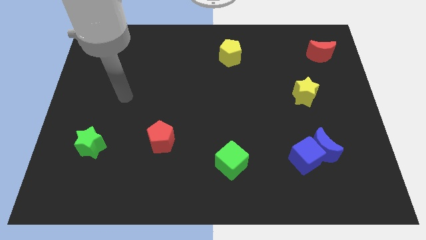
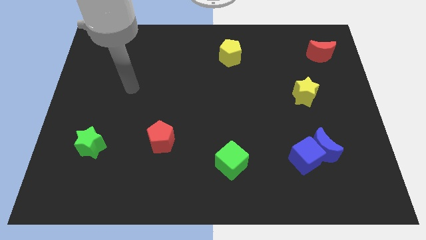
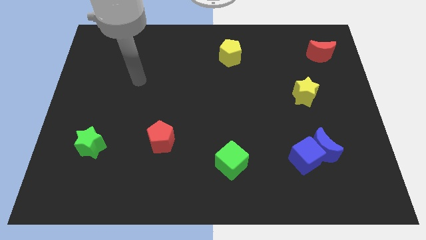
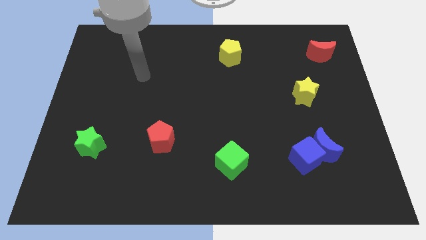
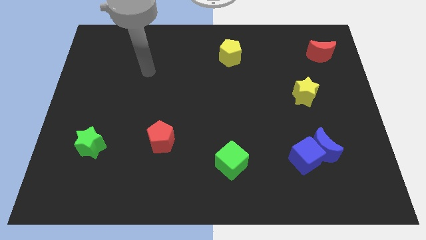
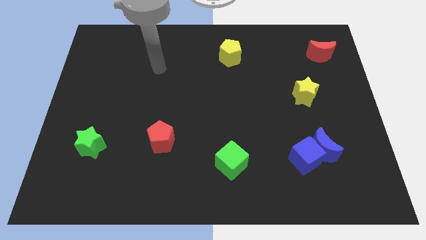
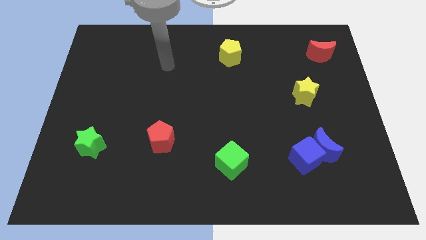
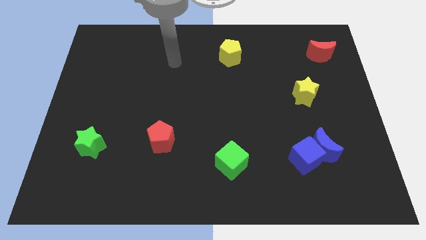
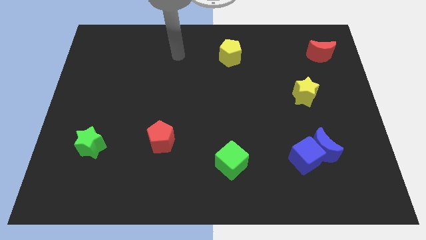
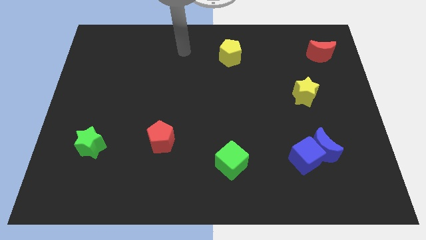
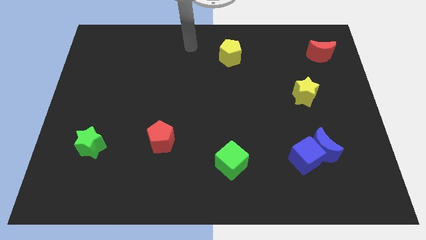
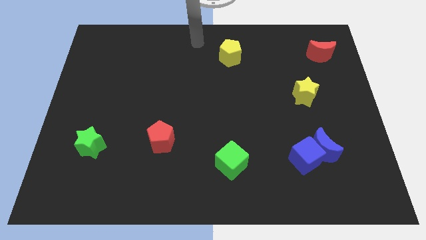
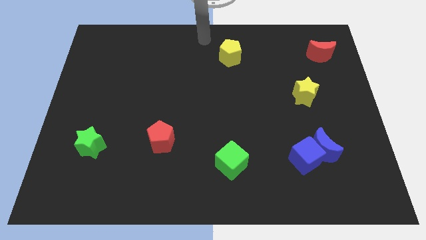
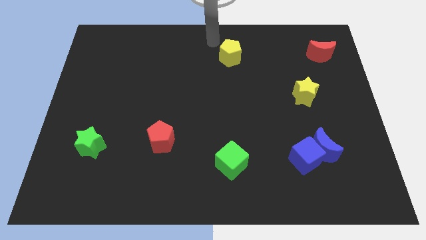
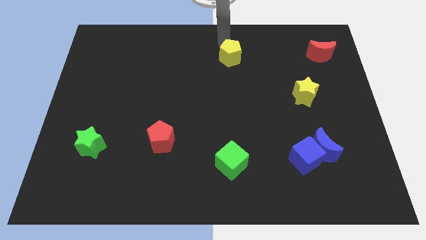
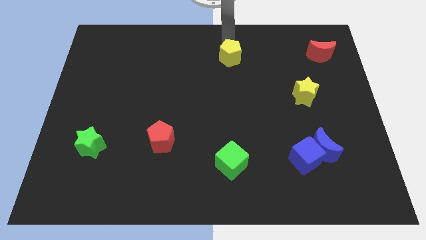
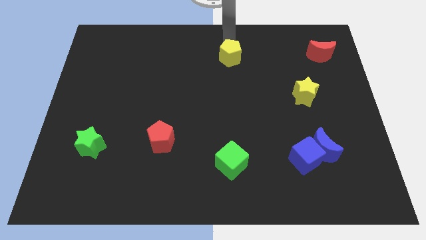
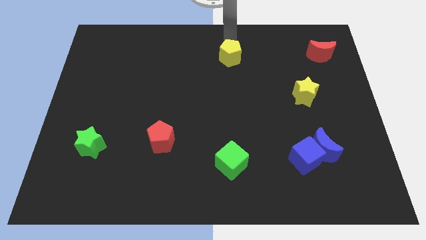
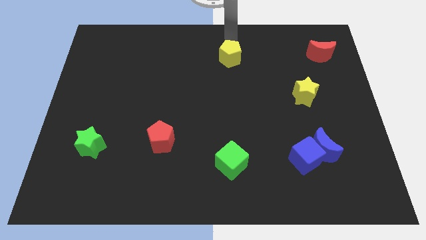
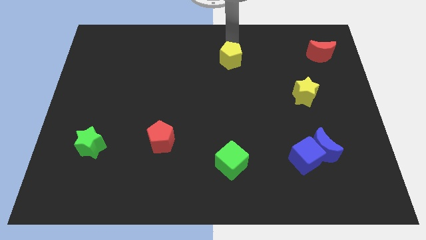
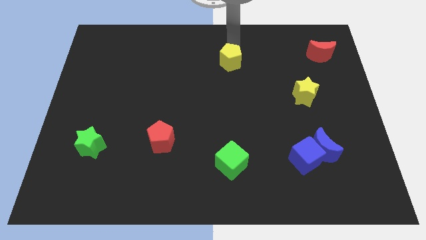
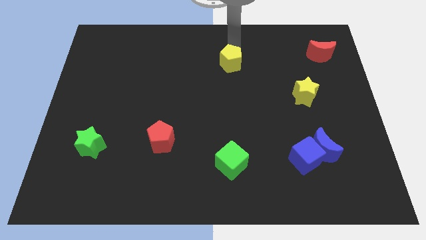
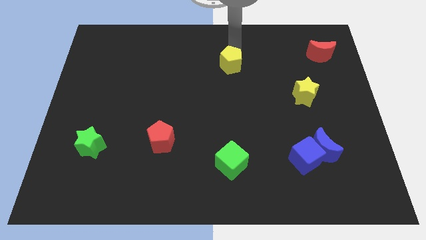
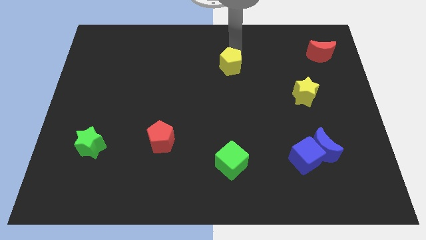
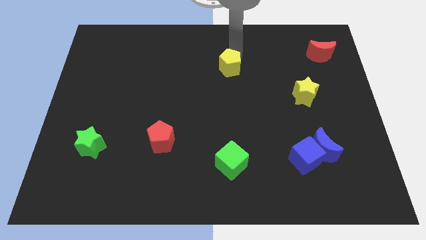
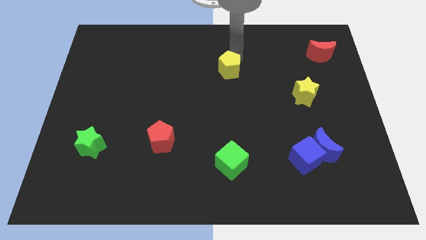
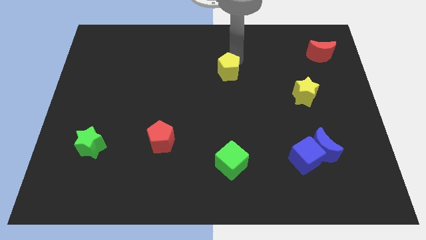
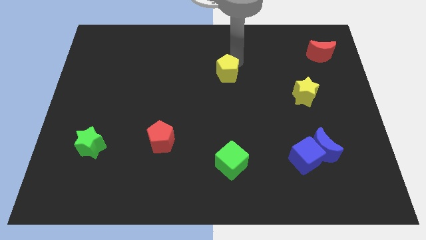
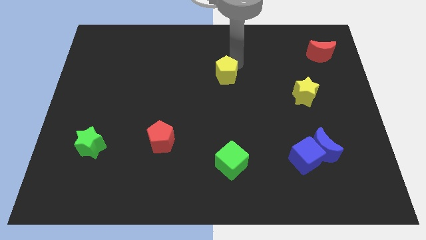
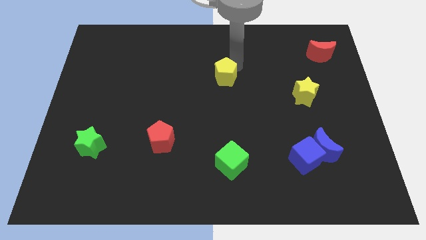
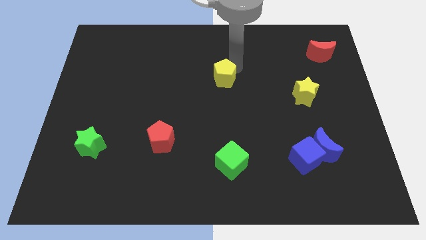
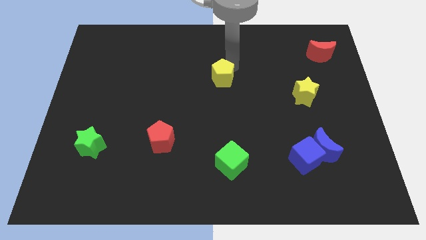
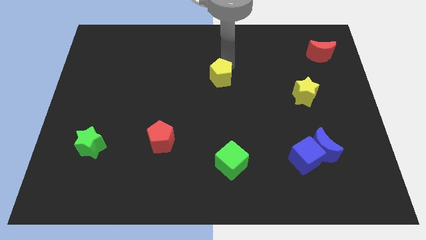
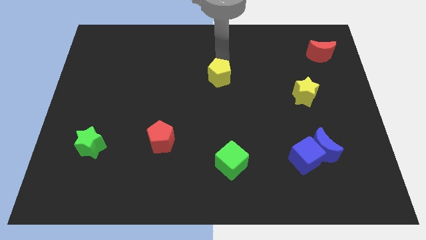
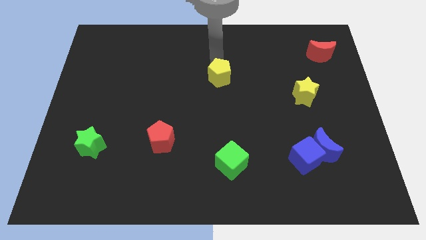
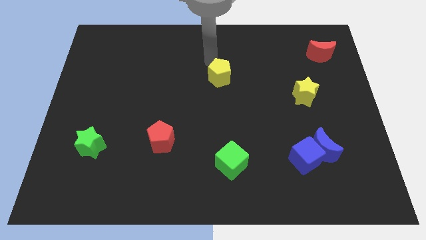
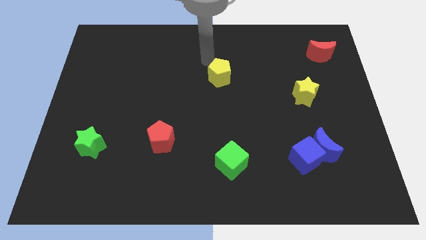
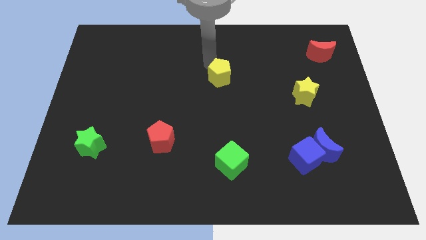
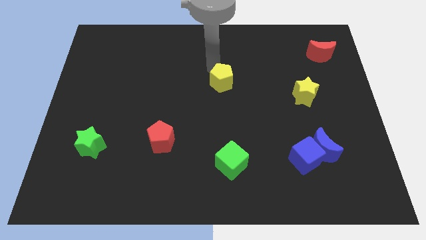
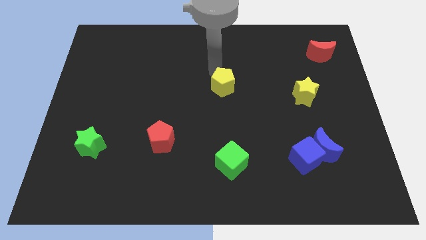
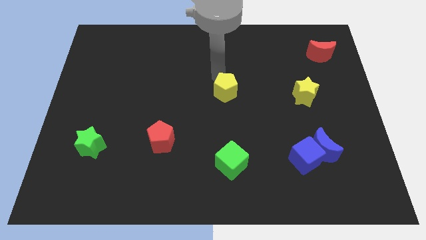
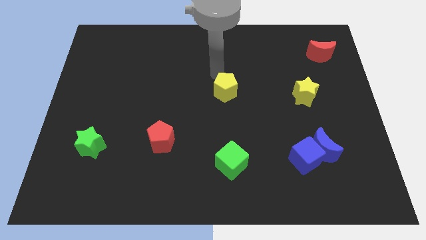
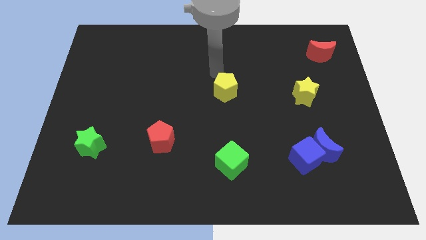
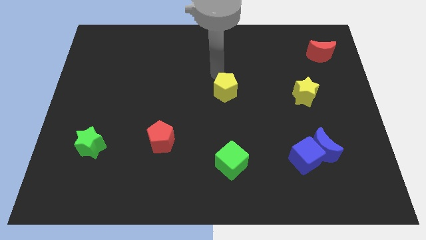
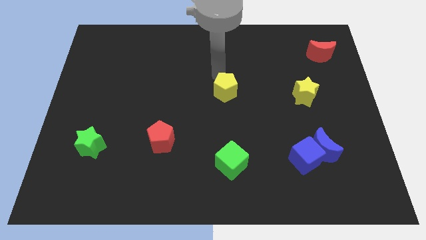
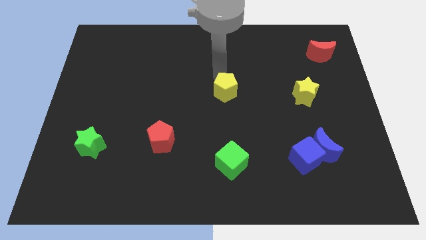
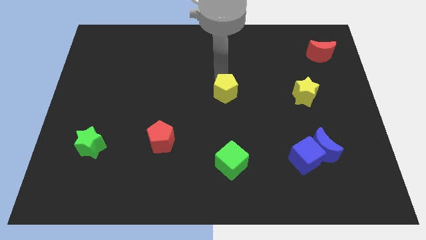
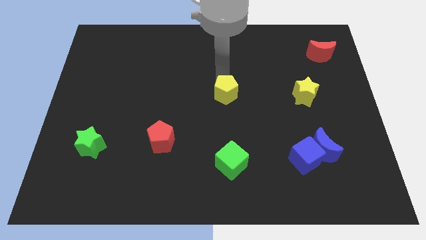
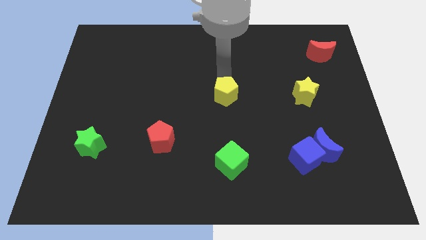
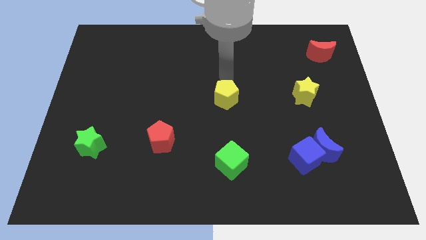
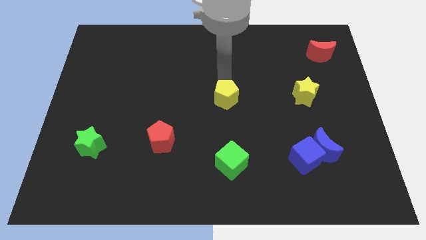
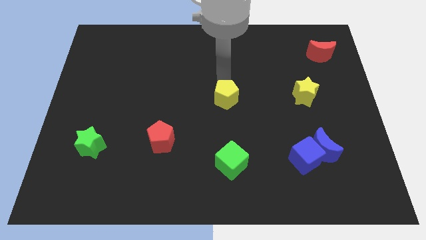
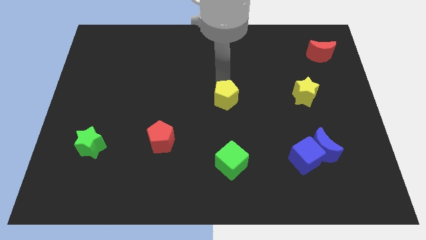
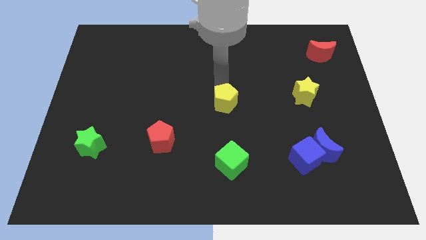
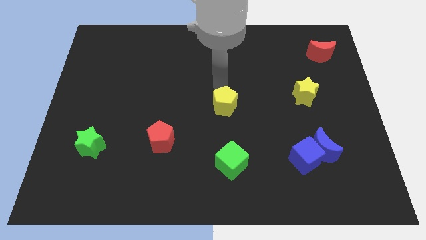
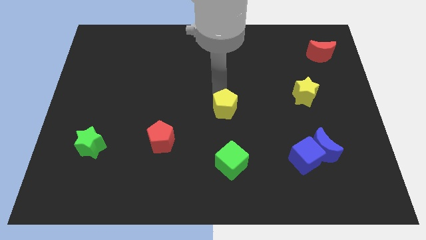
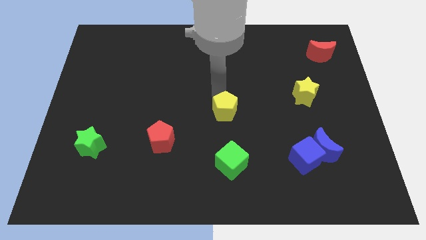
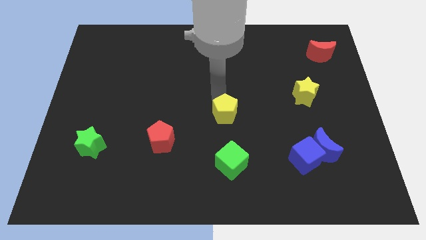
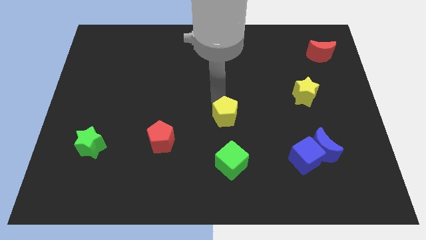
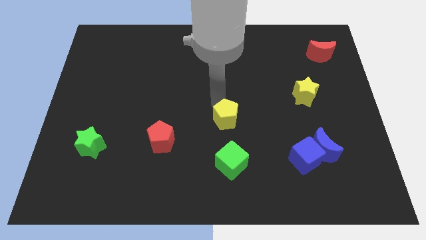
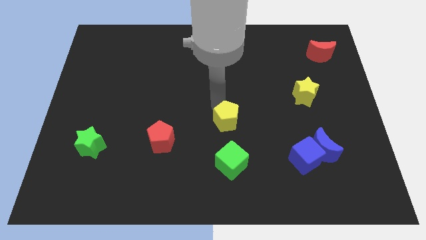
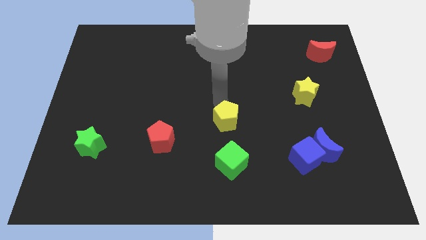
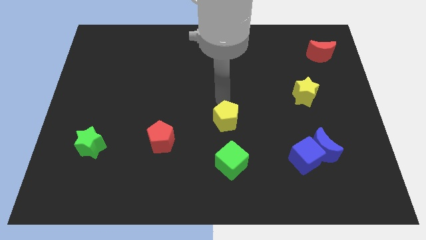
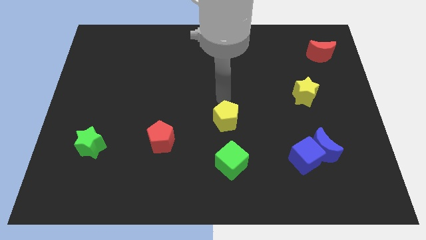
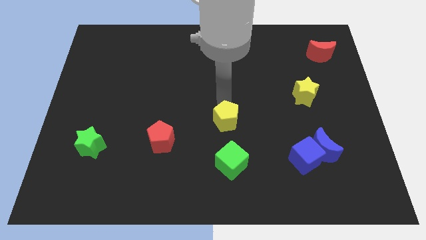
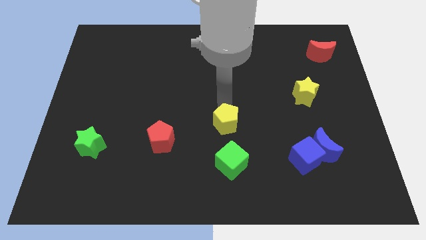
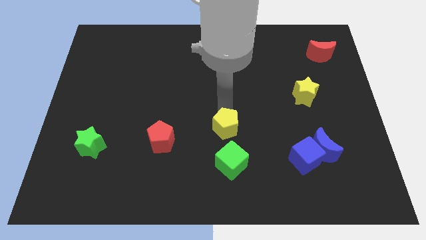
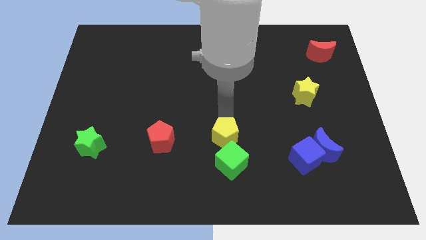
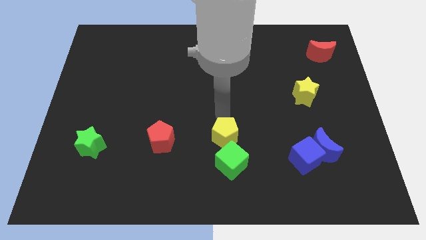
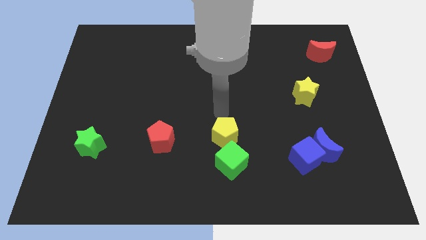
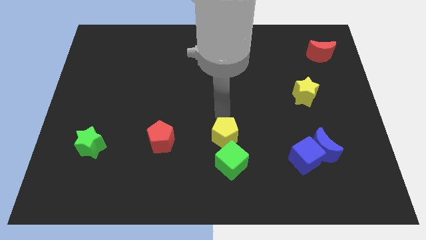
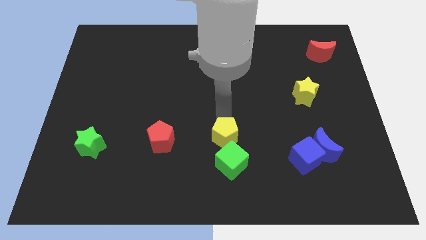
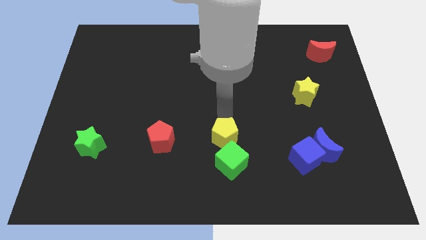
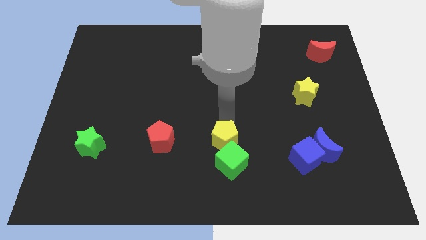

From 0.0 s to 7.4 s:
move the yellow pentagon towards the green cube

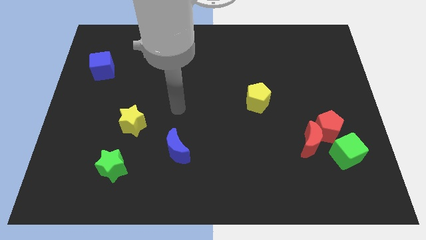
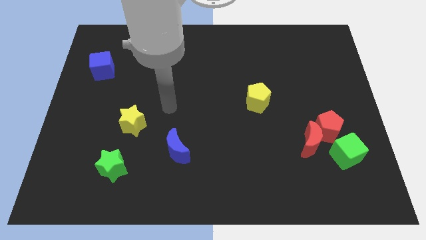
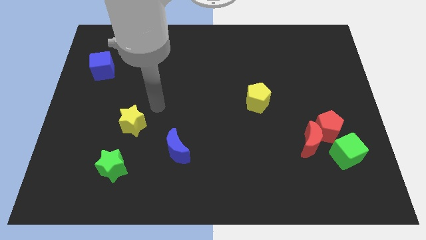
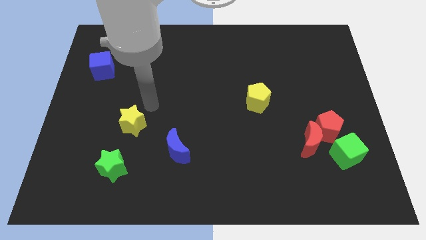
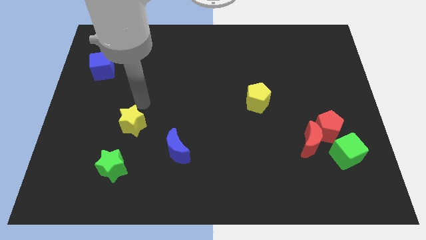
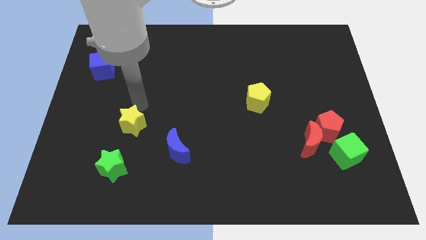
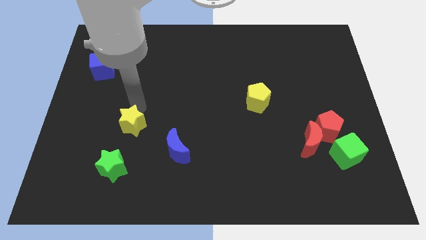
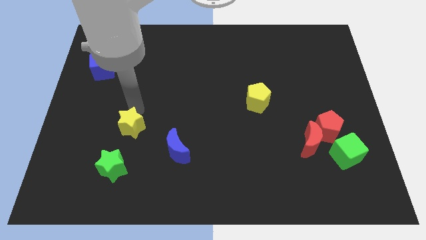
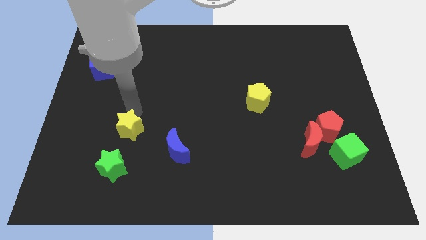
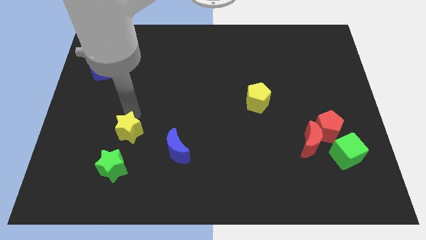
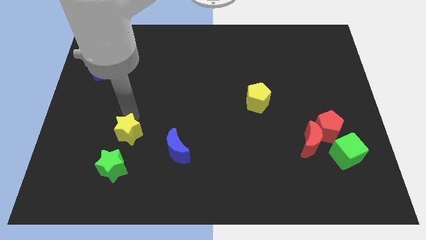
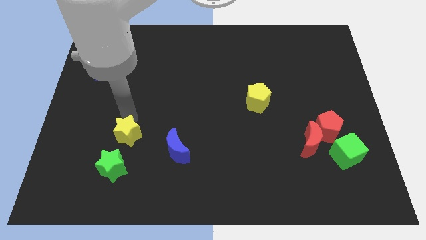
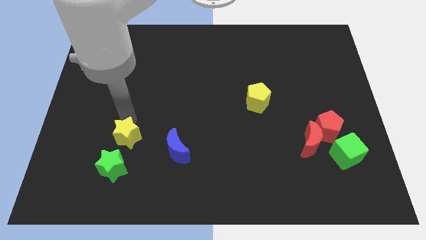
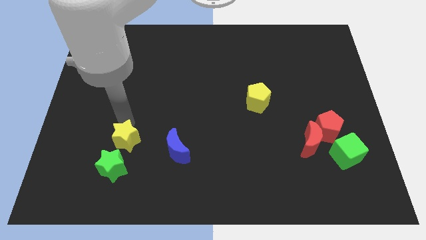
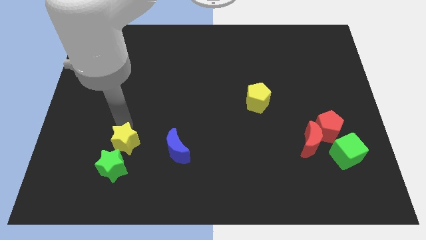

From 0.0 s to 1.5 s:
put the yellow star to the green star
